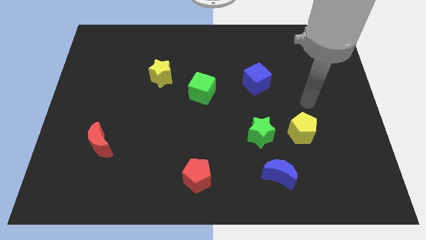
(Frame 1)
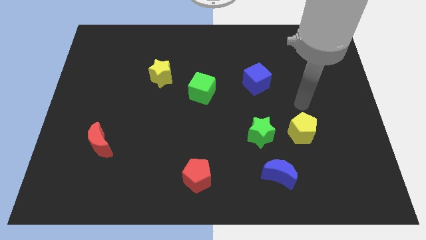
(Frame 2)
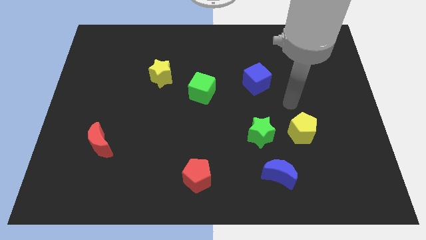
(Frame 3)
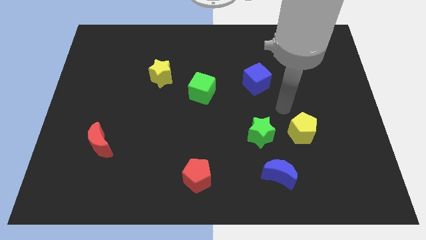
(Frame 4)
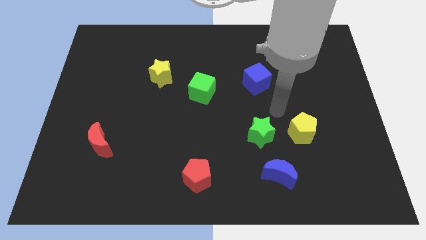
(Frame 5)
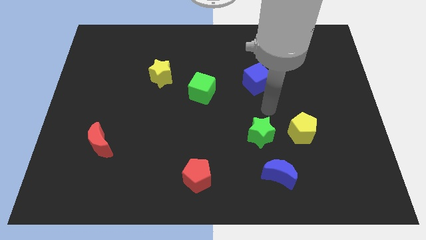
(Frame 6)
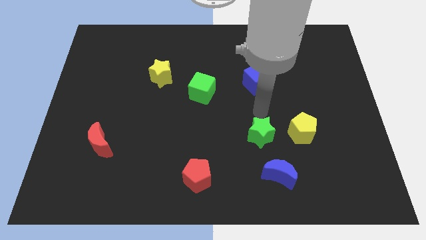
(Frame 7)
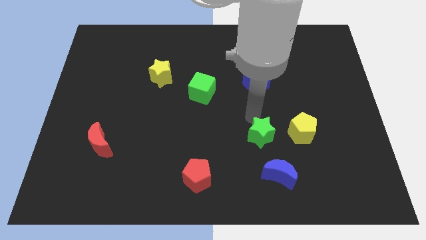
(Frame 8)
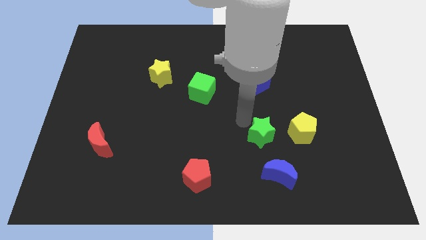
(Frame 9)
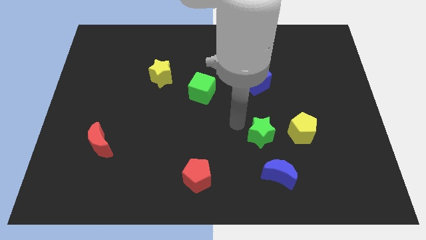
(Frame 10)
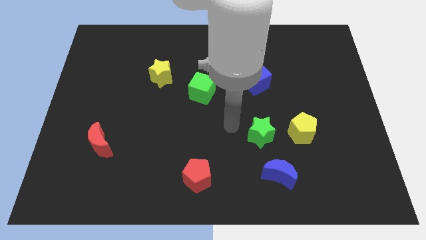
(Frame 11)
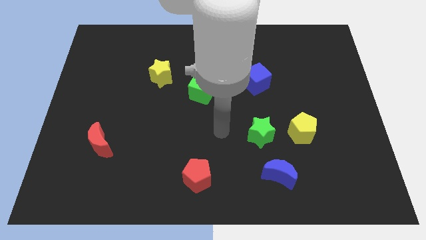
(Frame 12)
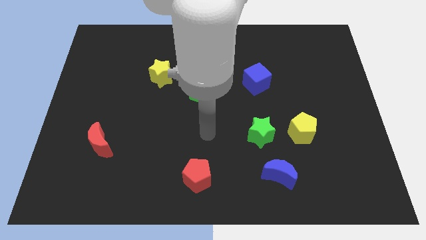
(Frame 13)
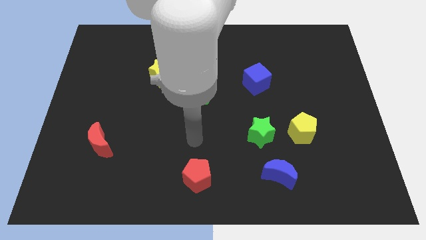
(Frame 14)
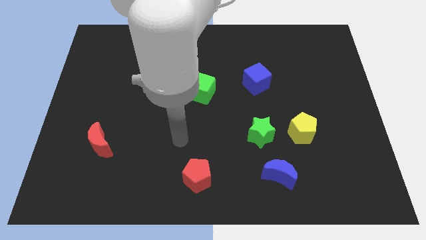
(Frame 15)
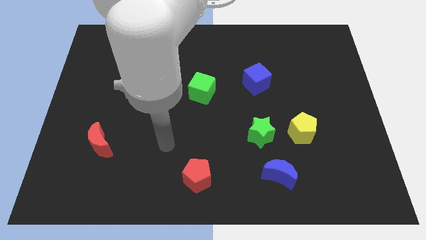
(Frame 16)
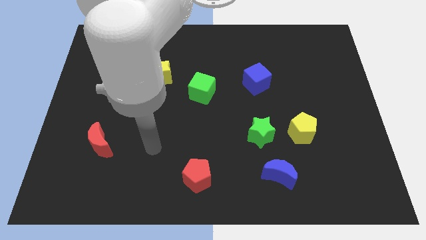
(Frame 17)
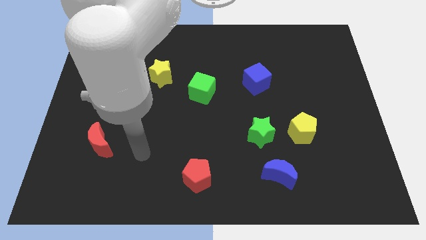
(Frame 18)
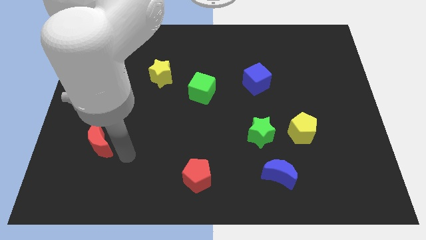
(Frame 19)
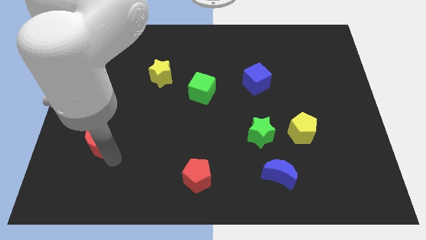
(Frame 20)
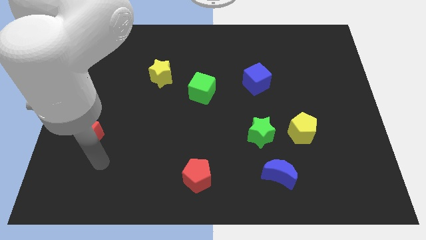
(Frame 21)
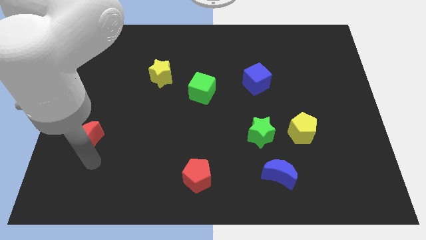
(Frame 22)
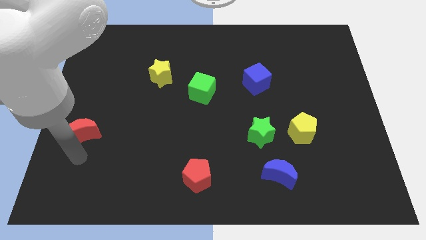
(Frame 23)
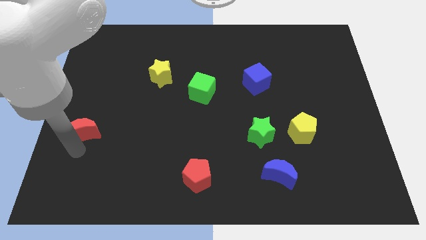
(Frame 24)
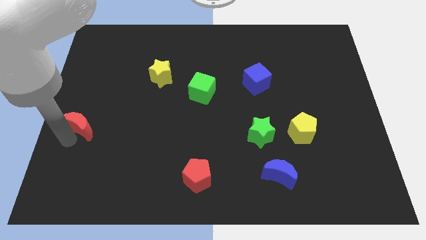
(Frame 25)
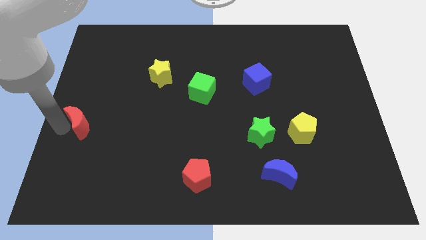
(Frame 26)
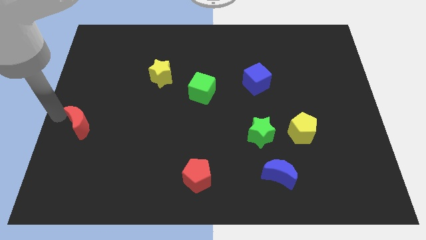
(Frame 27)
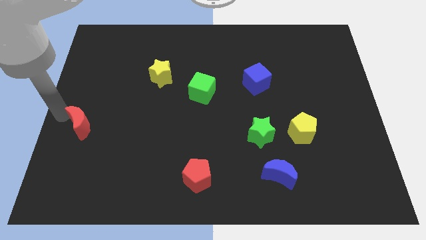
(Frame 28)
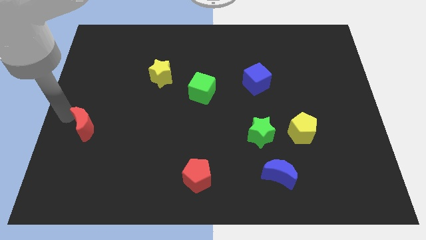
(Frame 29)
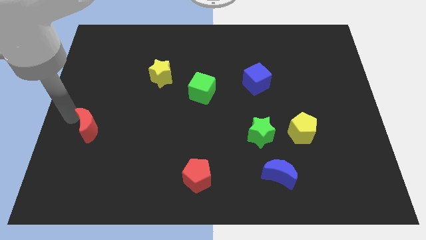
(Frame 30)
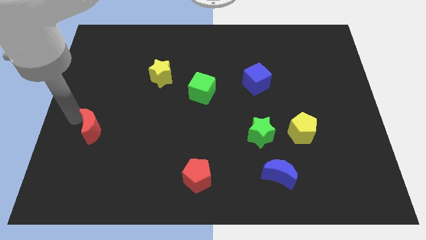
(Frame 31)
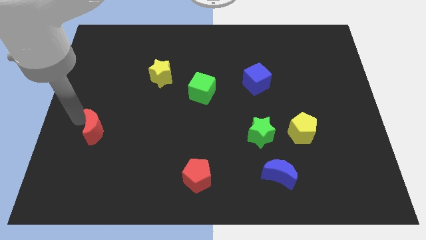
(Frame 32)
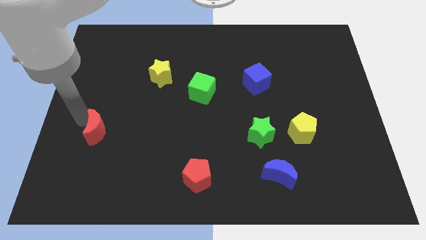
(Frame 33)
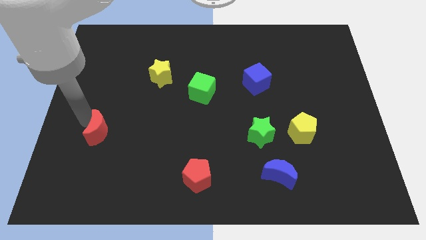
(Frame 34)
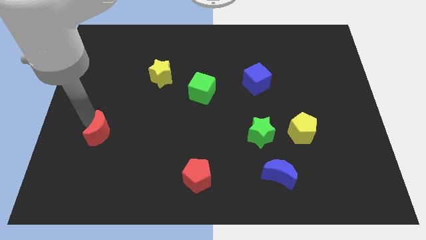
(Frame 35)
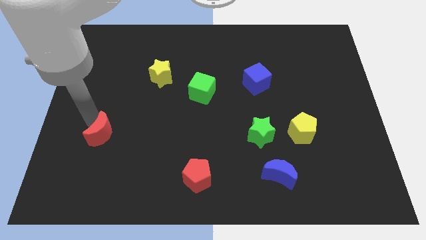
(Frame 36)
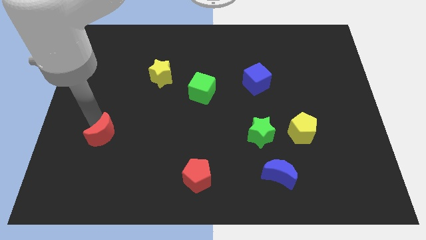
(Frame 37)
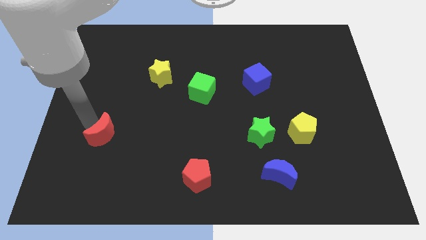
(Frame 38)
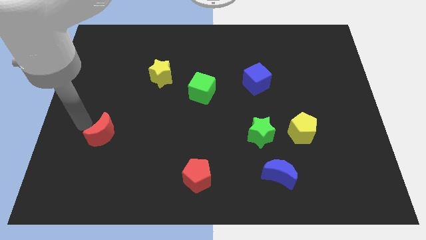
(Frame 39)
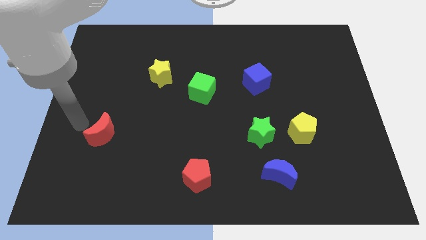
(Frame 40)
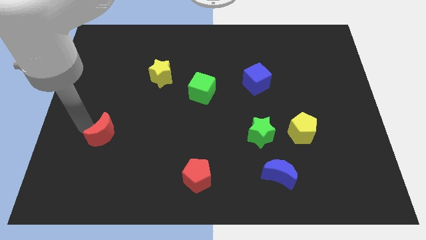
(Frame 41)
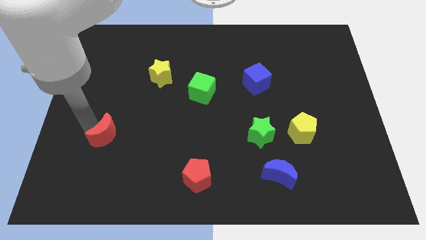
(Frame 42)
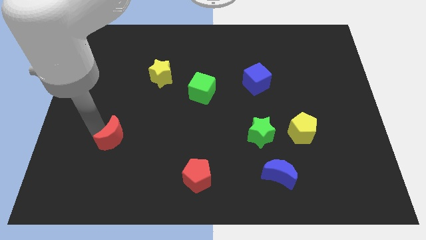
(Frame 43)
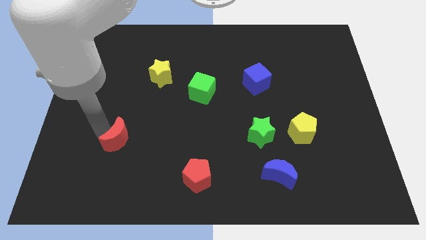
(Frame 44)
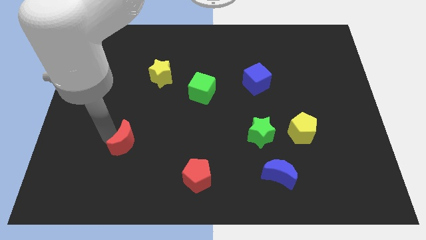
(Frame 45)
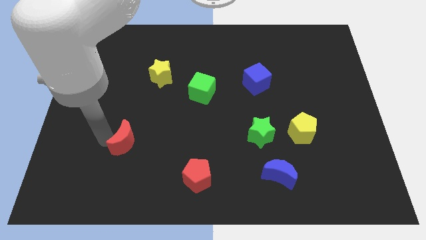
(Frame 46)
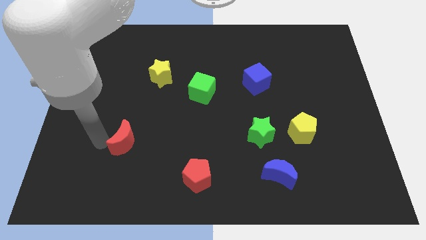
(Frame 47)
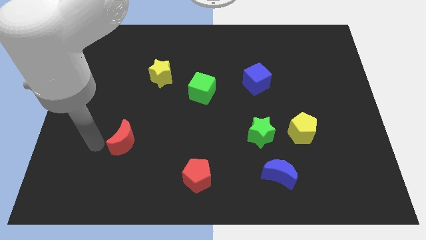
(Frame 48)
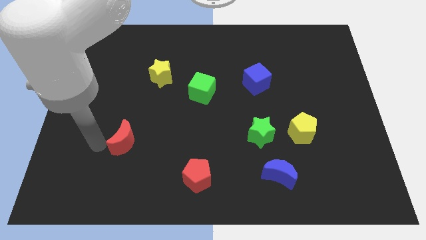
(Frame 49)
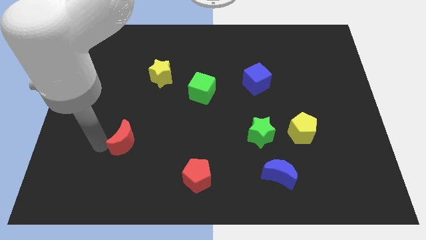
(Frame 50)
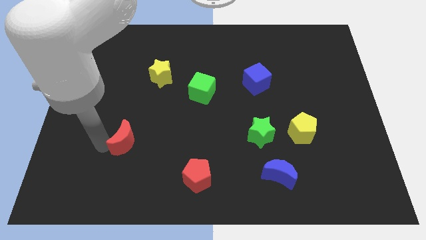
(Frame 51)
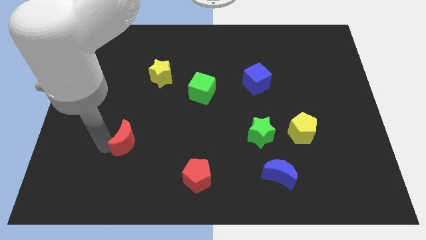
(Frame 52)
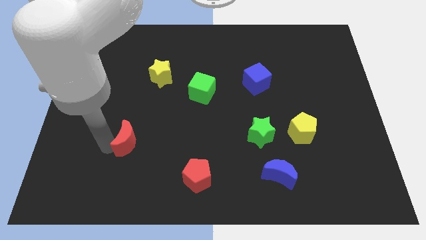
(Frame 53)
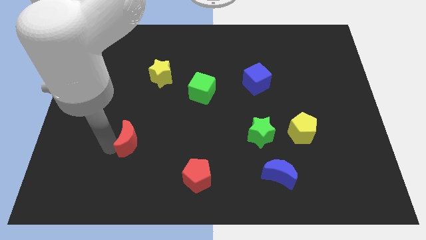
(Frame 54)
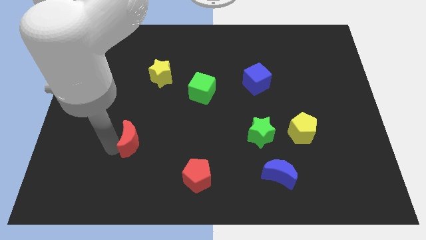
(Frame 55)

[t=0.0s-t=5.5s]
slightly move the red moon to the right

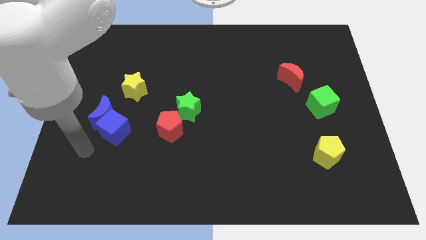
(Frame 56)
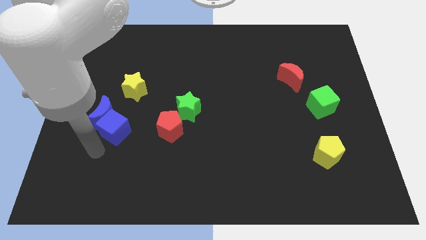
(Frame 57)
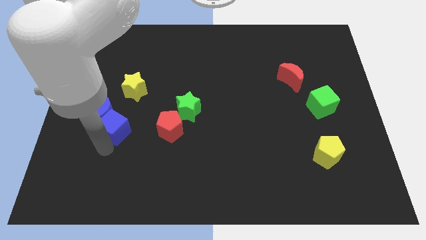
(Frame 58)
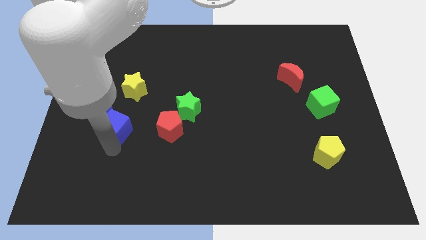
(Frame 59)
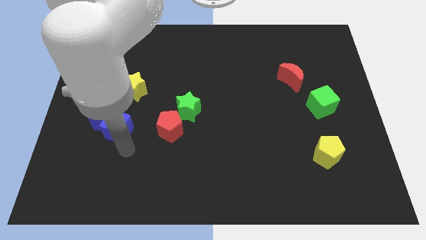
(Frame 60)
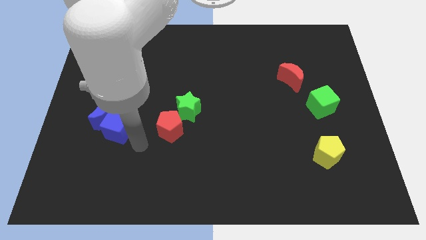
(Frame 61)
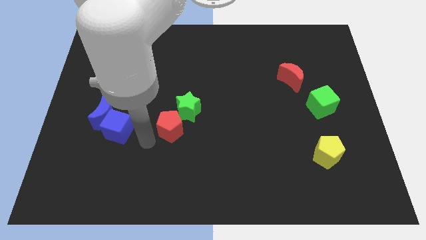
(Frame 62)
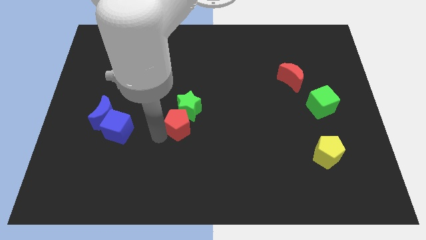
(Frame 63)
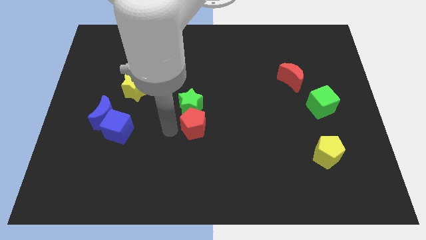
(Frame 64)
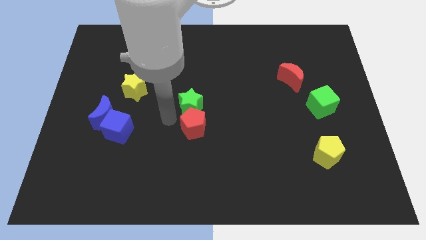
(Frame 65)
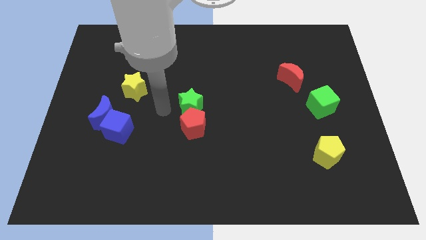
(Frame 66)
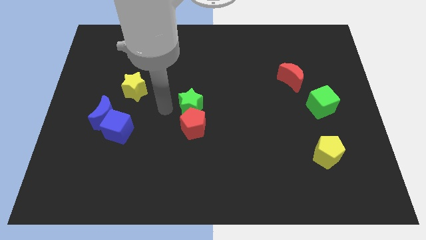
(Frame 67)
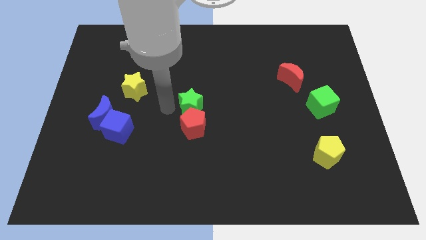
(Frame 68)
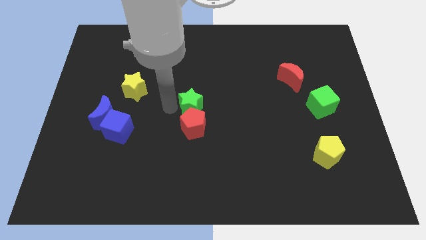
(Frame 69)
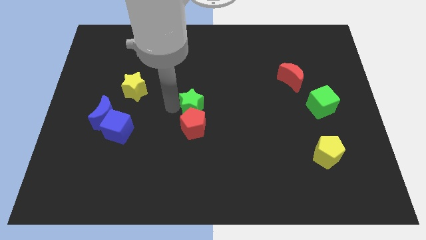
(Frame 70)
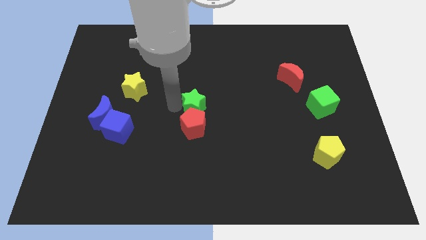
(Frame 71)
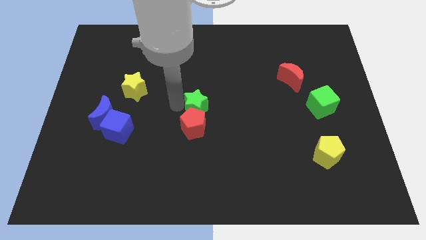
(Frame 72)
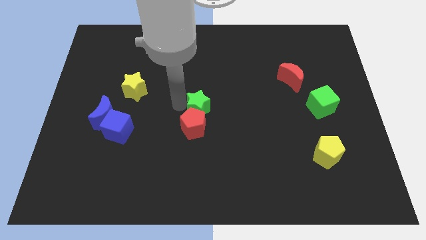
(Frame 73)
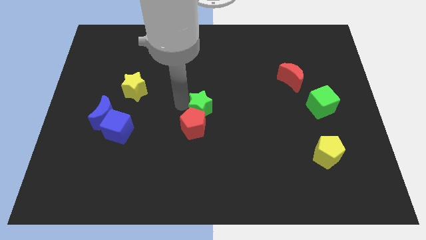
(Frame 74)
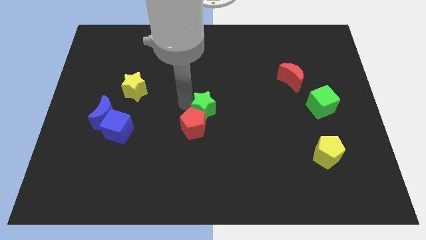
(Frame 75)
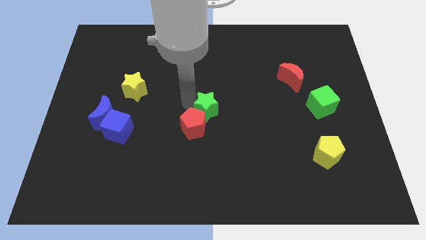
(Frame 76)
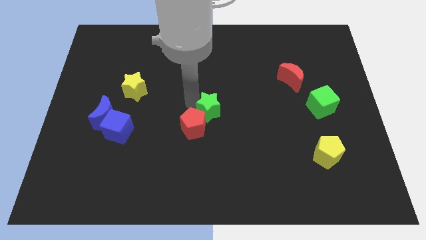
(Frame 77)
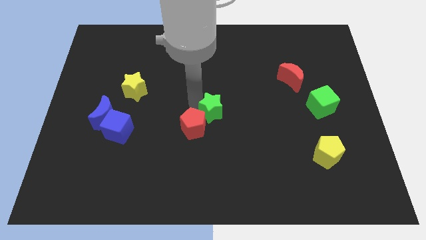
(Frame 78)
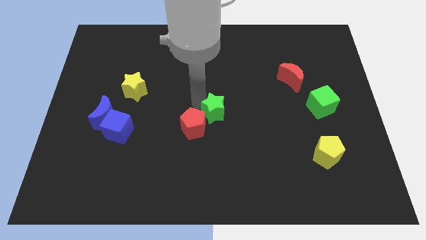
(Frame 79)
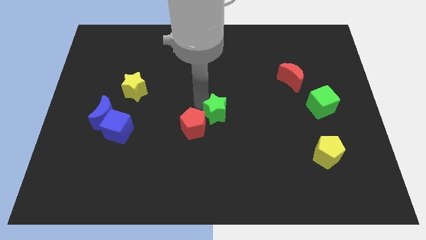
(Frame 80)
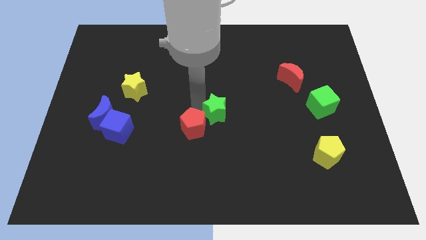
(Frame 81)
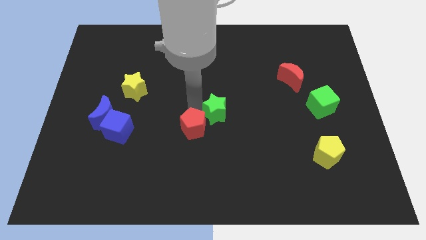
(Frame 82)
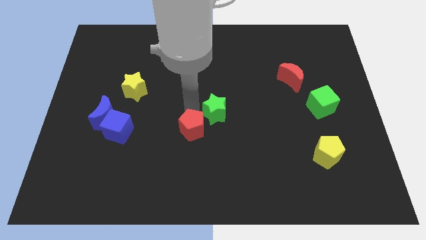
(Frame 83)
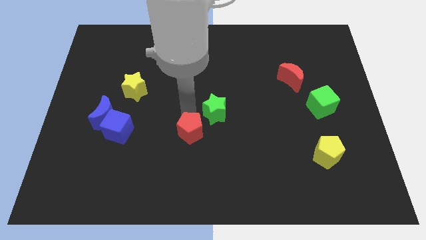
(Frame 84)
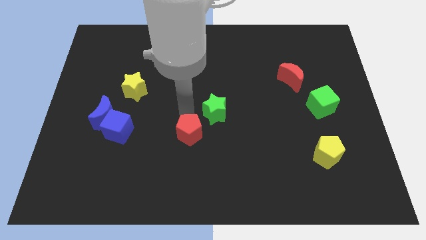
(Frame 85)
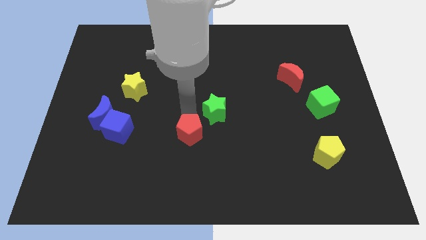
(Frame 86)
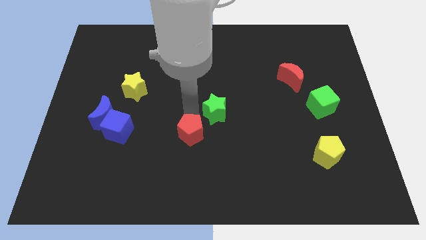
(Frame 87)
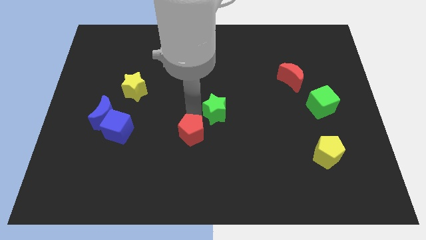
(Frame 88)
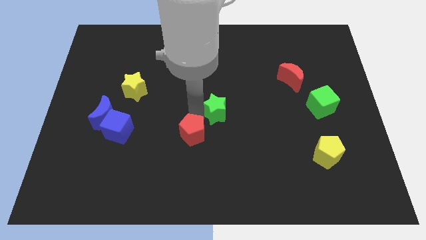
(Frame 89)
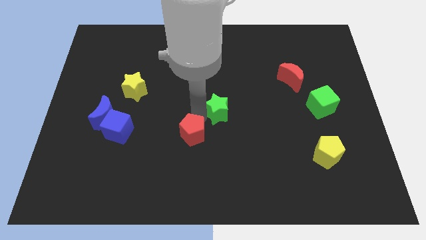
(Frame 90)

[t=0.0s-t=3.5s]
move the green star to the right a bit
